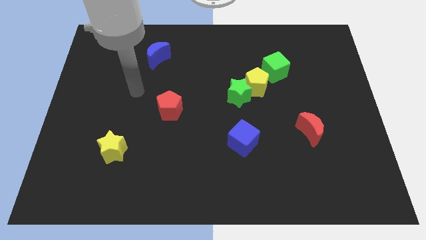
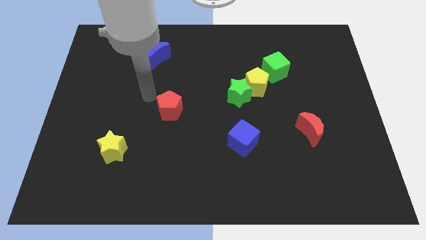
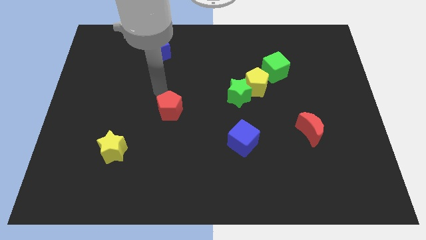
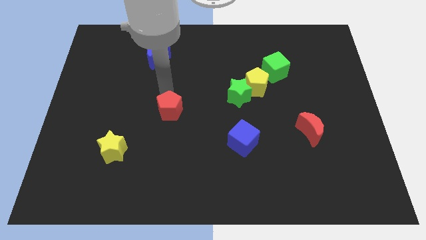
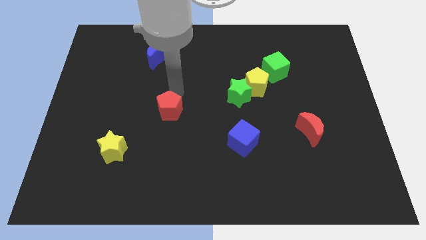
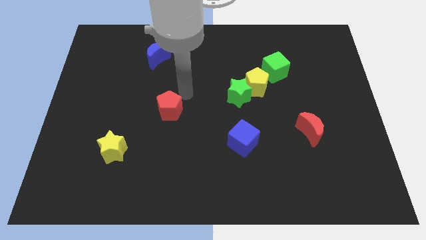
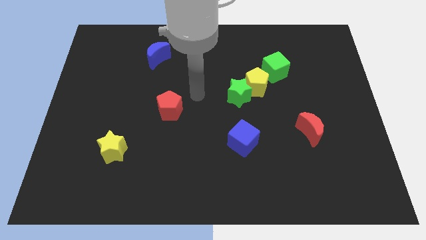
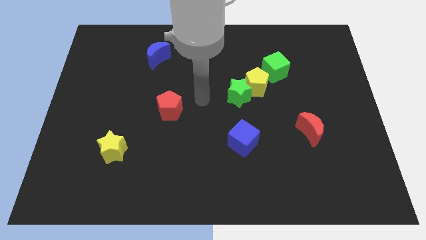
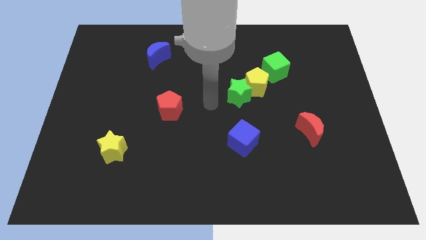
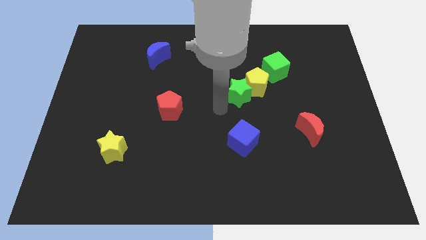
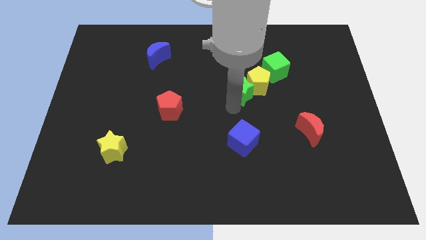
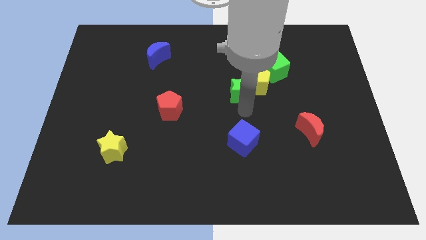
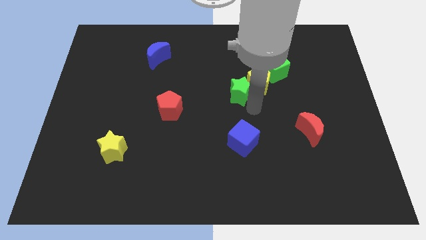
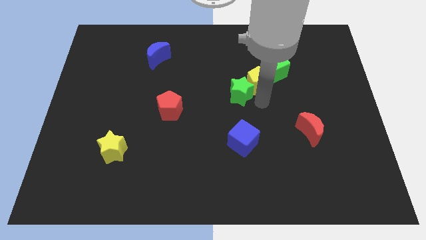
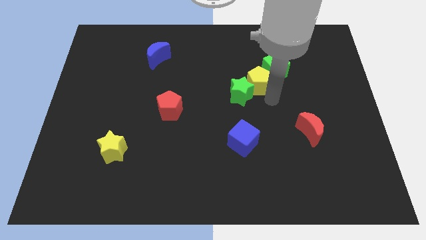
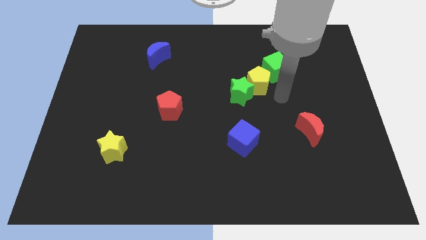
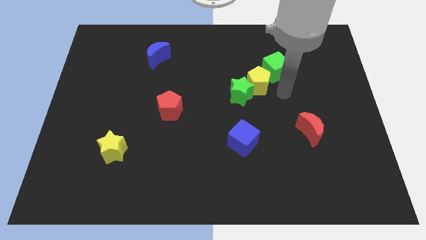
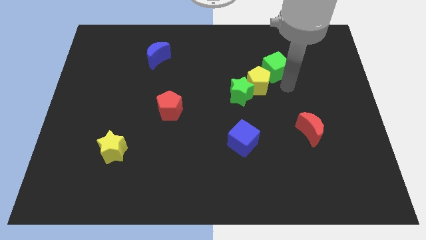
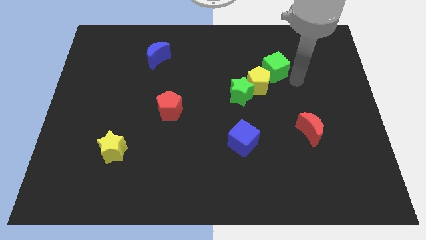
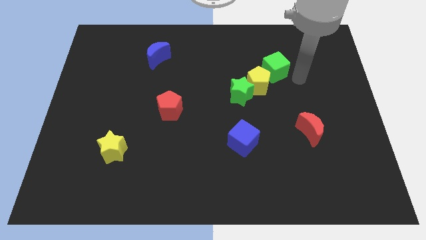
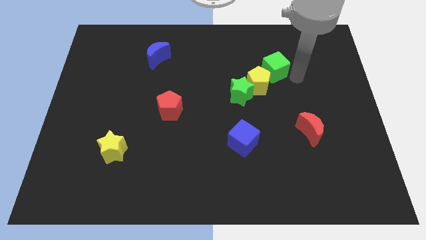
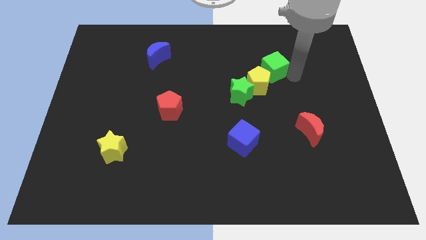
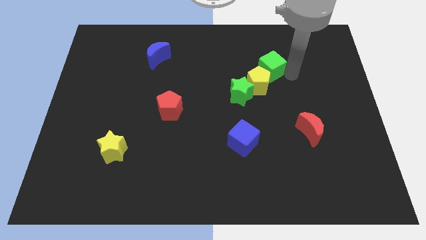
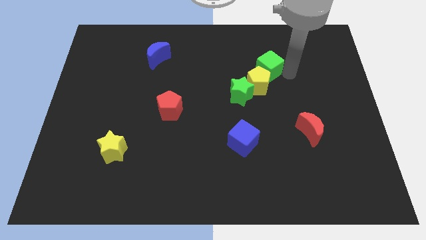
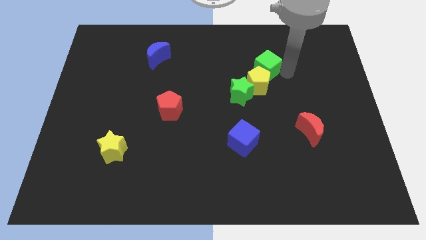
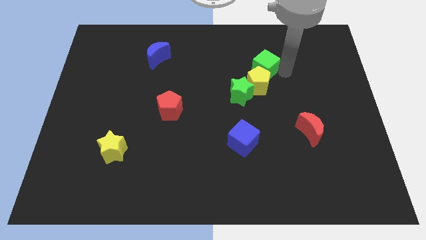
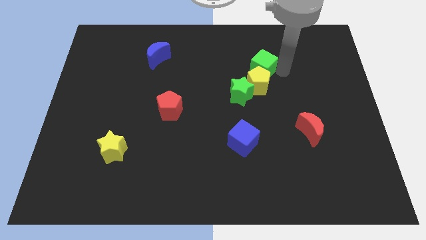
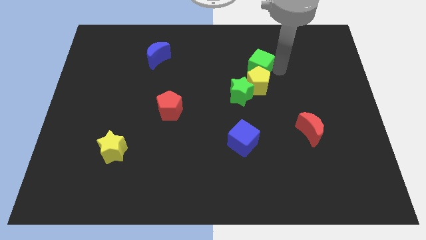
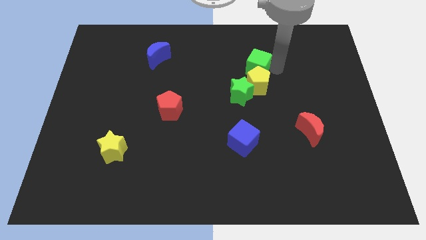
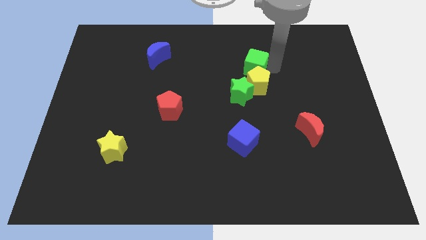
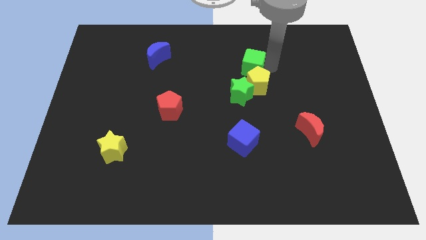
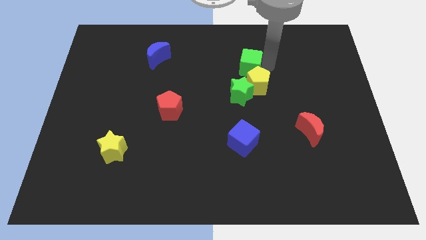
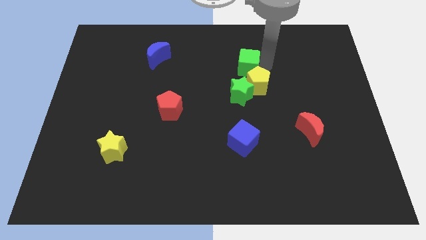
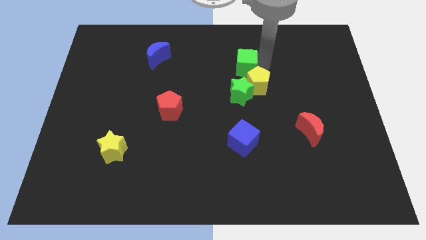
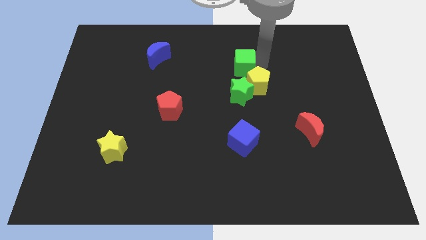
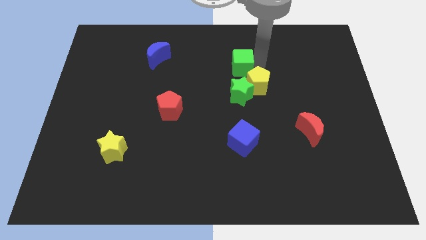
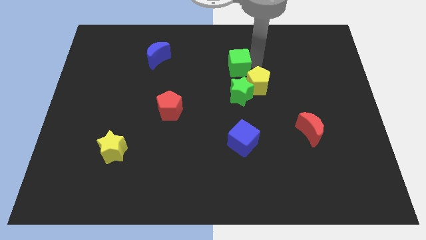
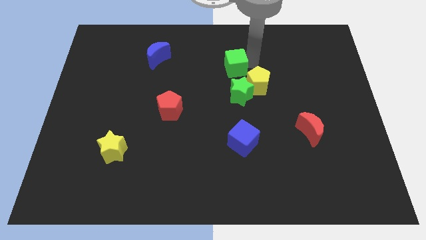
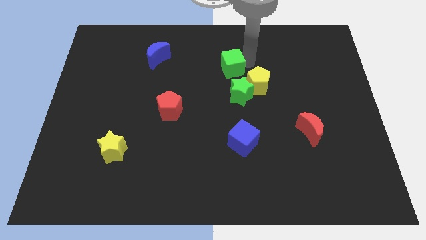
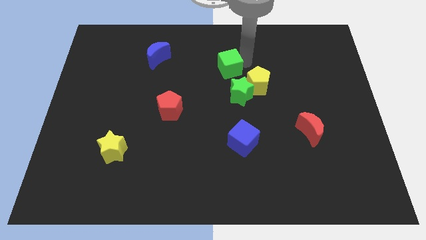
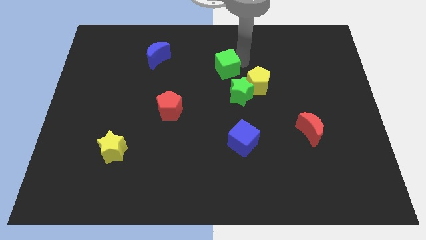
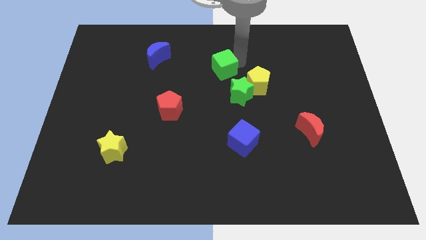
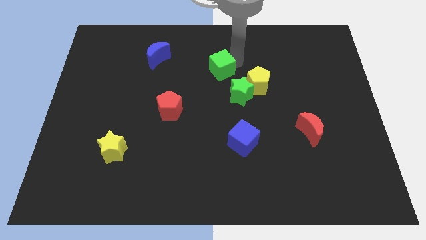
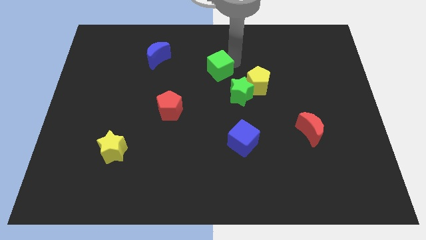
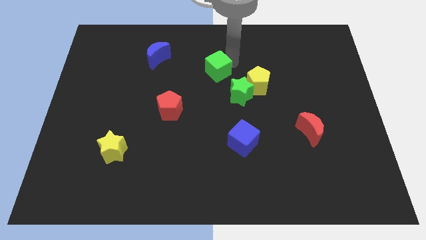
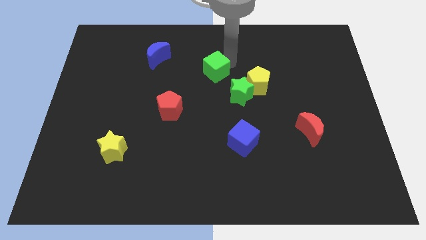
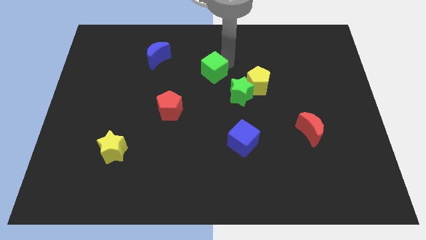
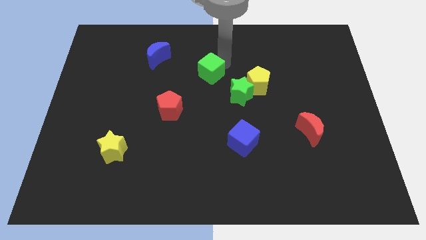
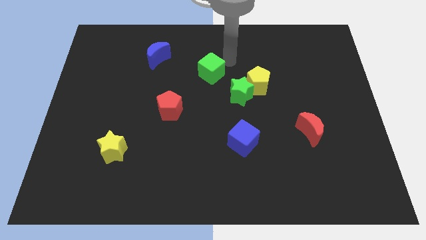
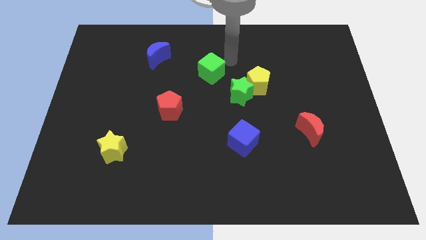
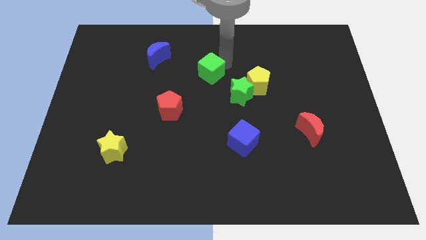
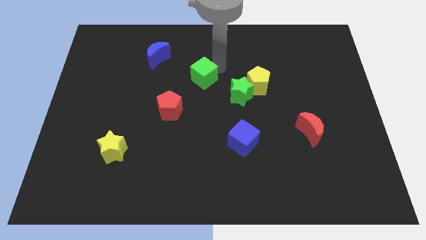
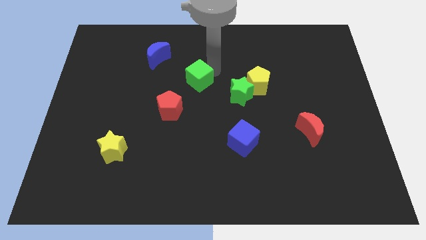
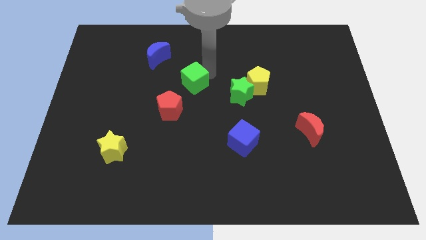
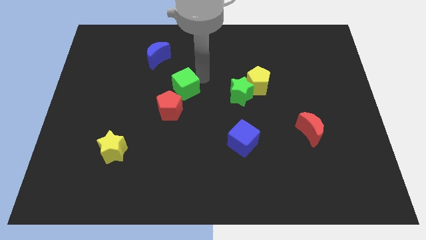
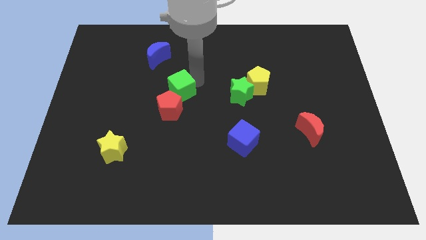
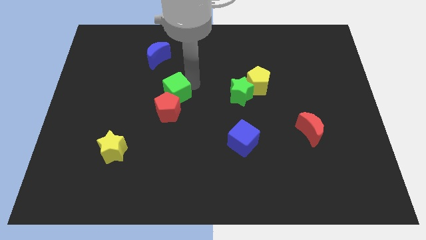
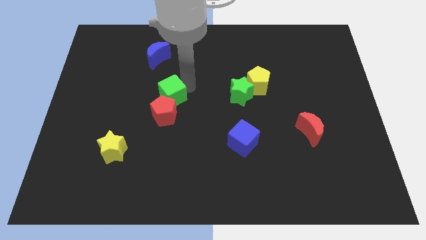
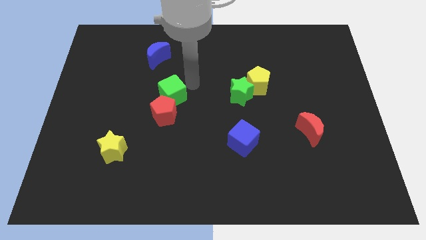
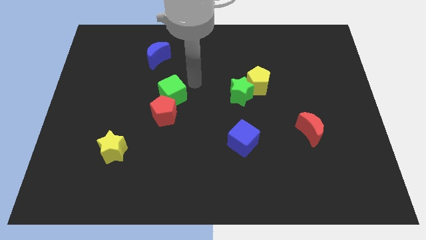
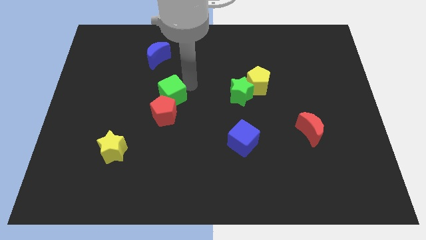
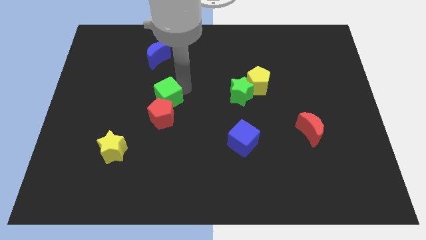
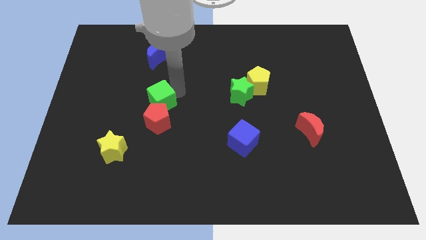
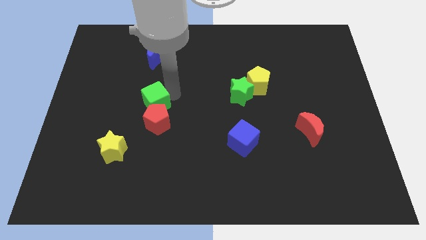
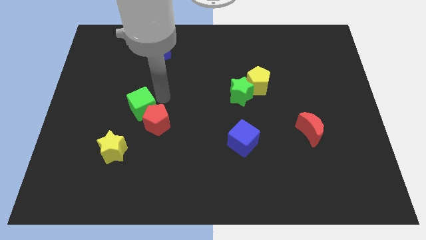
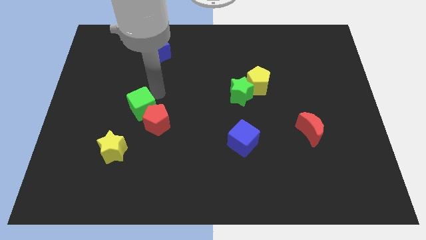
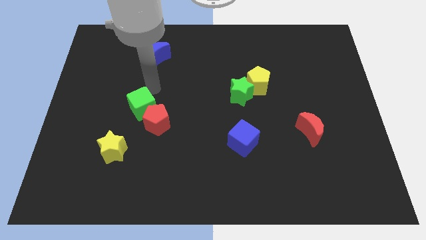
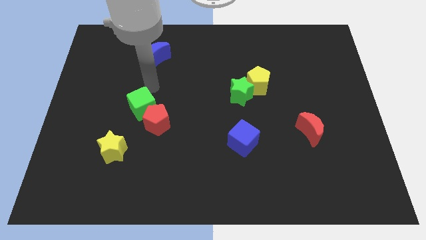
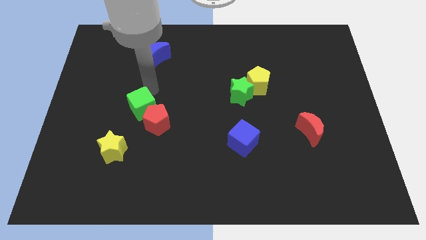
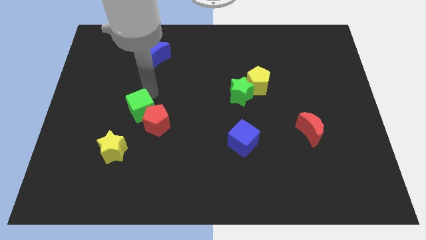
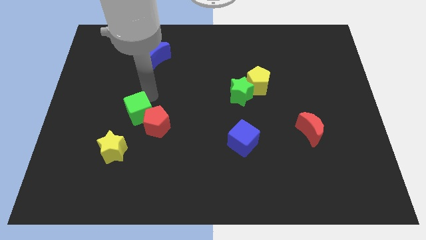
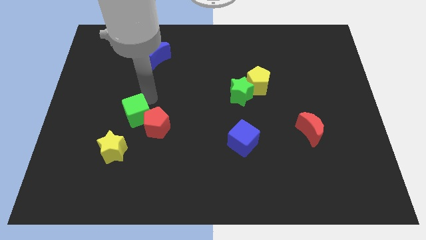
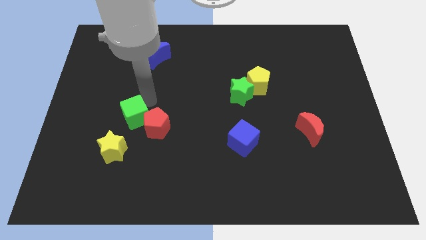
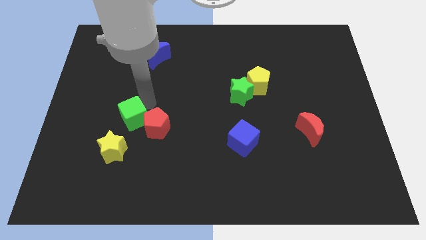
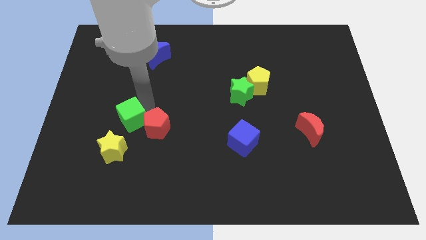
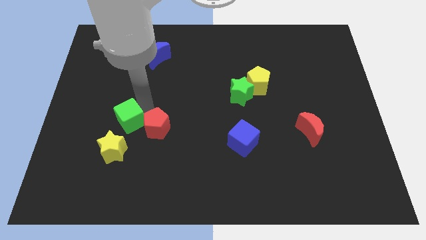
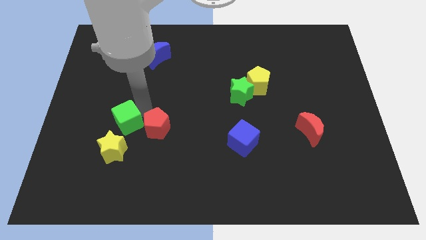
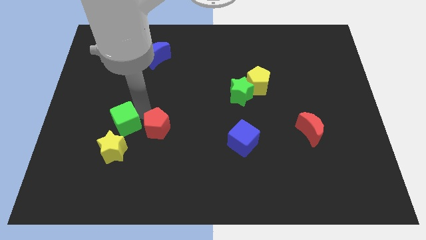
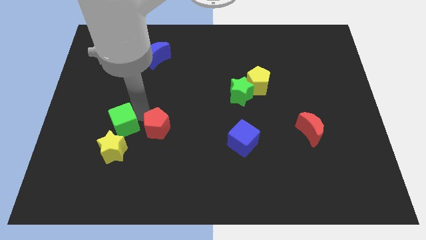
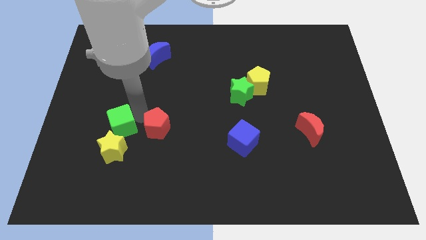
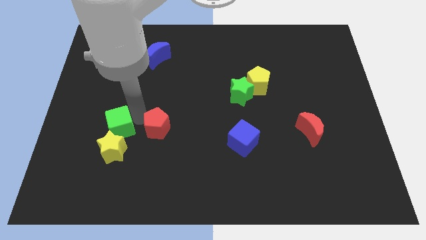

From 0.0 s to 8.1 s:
push the green cube next to the yellow star
